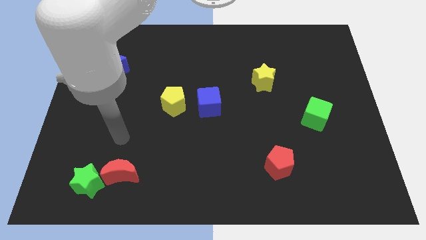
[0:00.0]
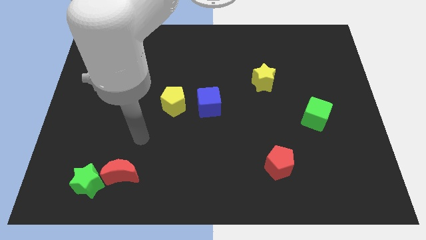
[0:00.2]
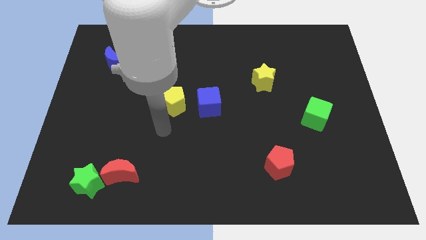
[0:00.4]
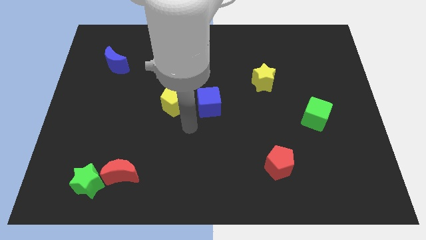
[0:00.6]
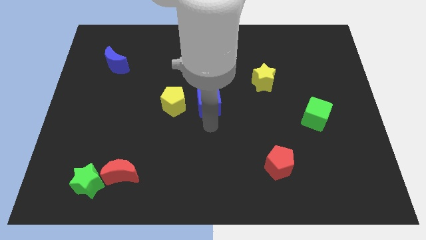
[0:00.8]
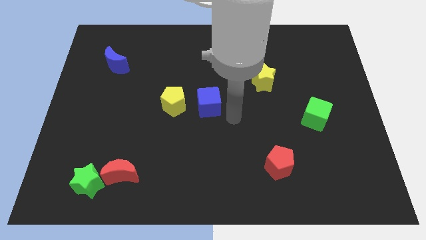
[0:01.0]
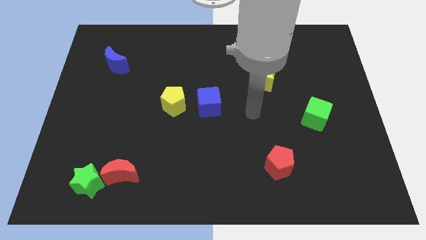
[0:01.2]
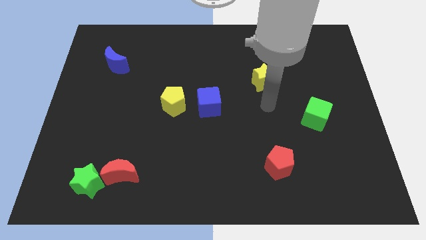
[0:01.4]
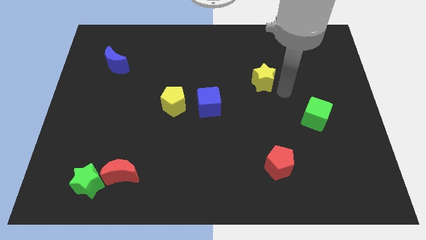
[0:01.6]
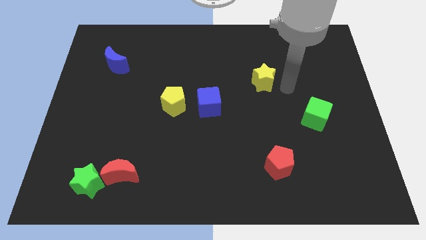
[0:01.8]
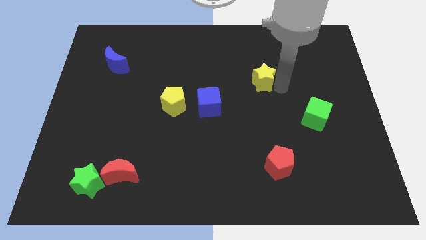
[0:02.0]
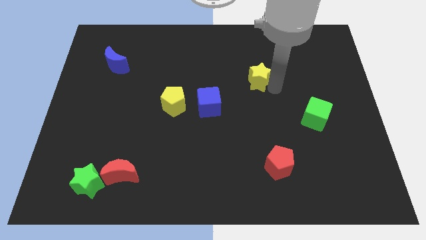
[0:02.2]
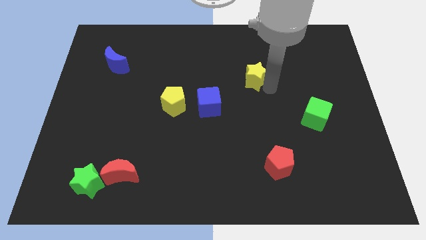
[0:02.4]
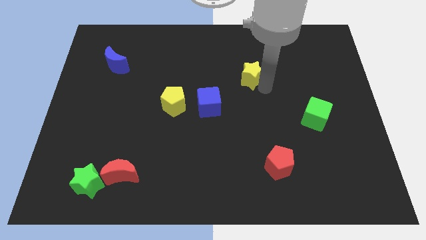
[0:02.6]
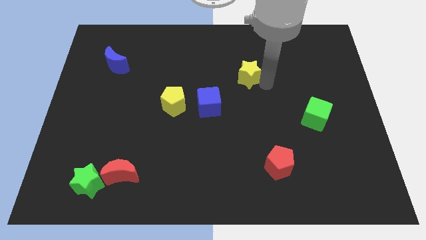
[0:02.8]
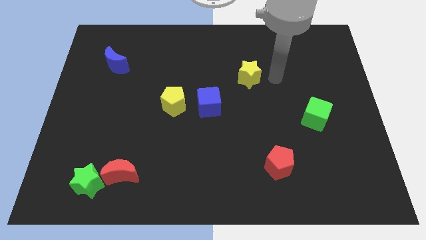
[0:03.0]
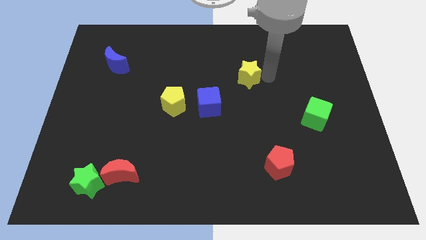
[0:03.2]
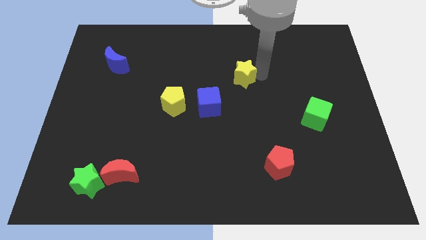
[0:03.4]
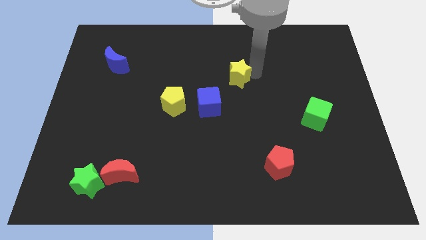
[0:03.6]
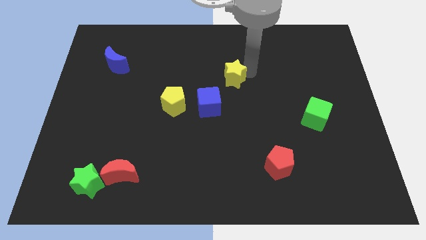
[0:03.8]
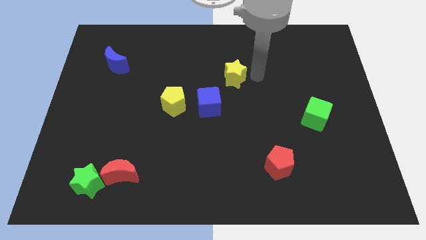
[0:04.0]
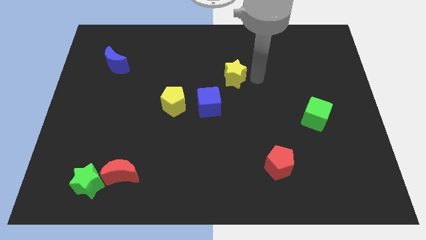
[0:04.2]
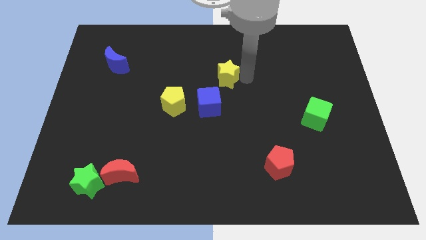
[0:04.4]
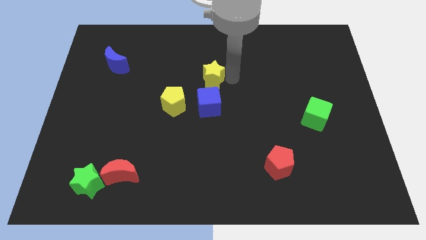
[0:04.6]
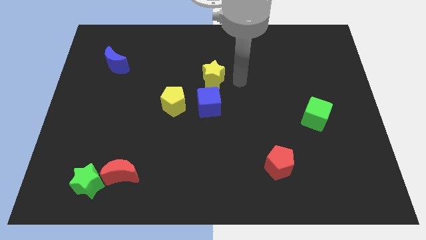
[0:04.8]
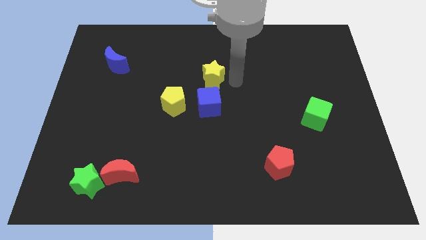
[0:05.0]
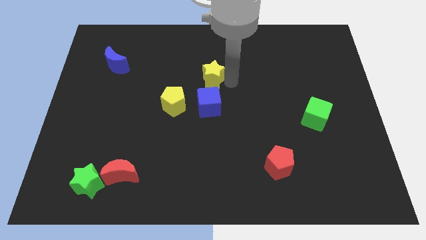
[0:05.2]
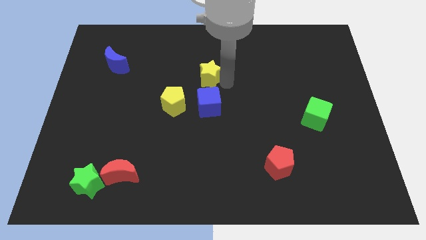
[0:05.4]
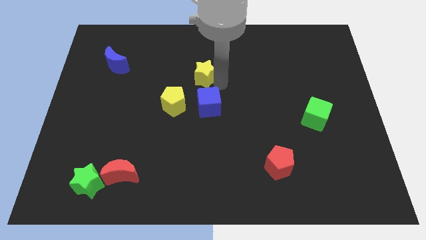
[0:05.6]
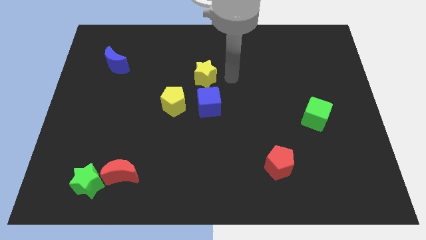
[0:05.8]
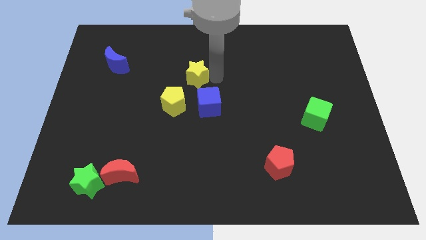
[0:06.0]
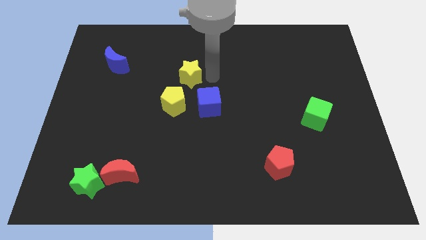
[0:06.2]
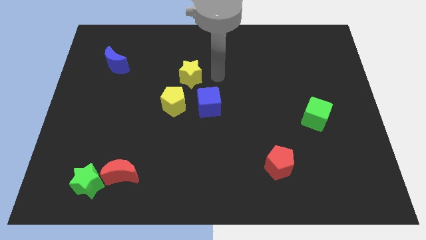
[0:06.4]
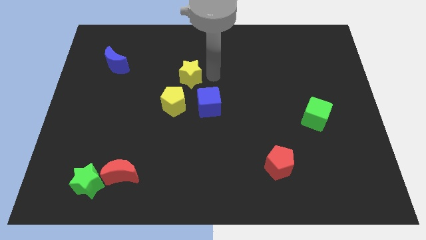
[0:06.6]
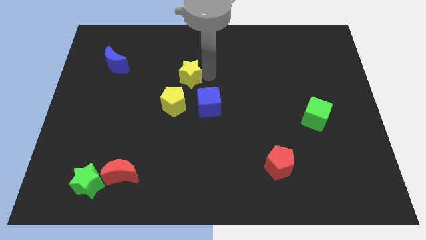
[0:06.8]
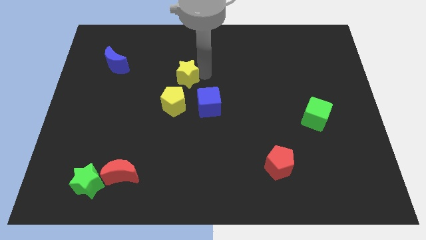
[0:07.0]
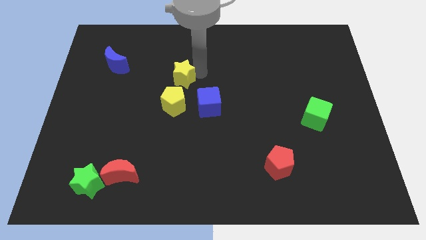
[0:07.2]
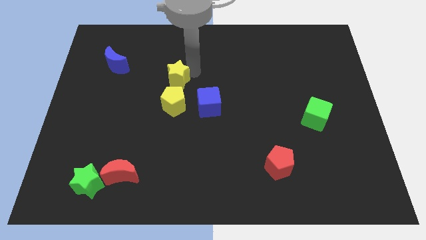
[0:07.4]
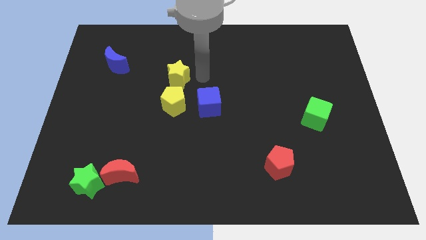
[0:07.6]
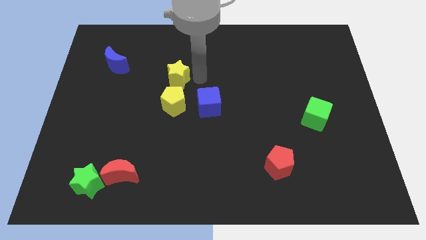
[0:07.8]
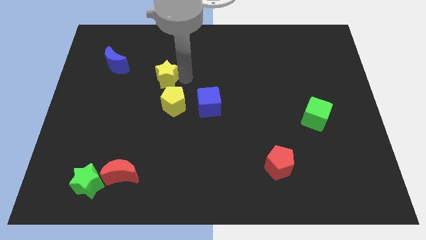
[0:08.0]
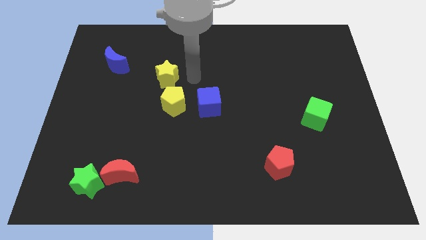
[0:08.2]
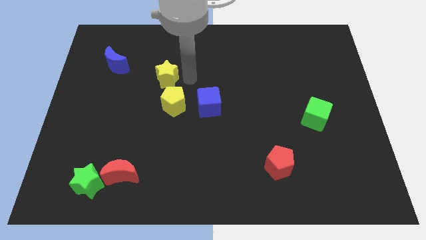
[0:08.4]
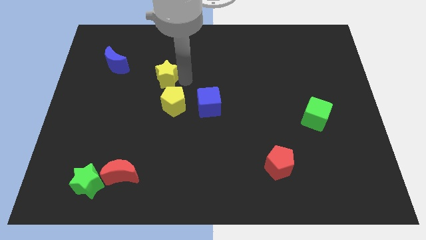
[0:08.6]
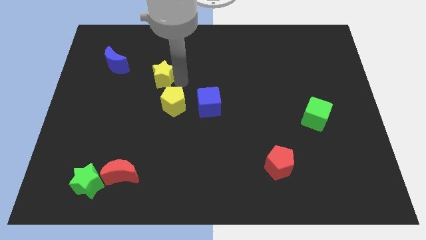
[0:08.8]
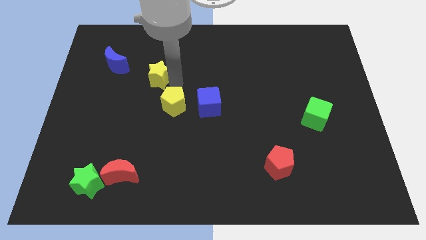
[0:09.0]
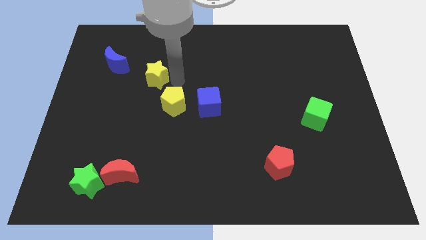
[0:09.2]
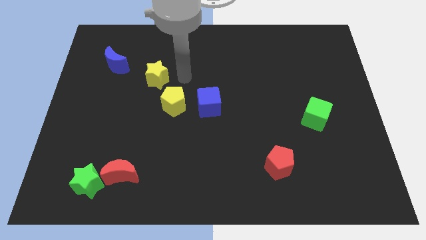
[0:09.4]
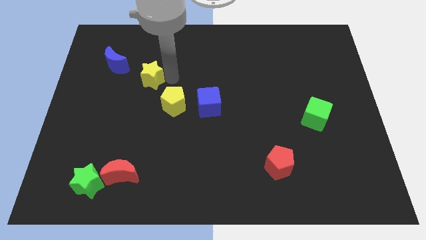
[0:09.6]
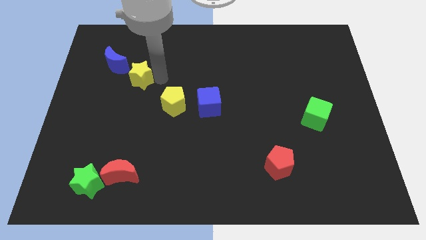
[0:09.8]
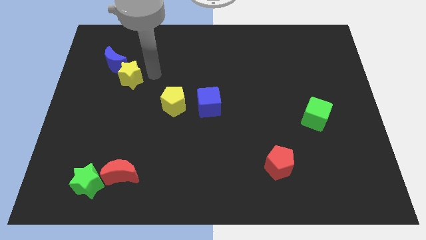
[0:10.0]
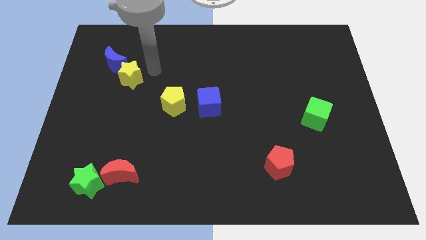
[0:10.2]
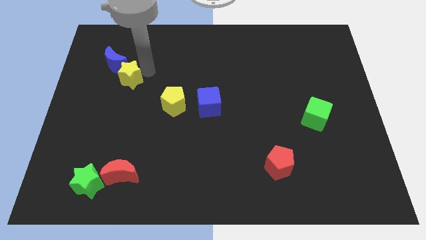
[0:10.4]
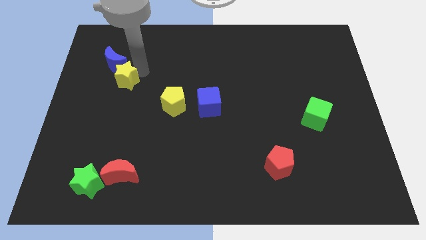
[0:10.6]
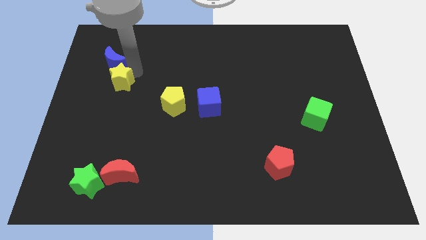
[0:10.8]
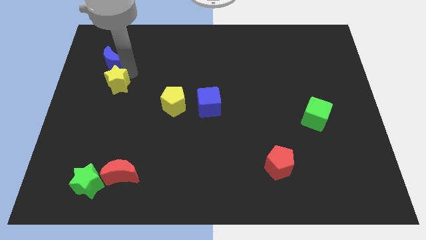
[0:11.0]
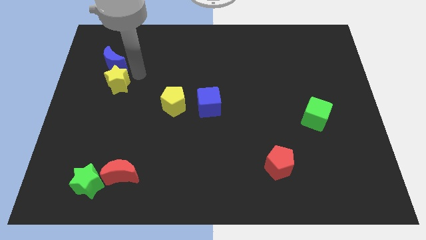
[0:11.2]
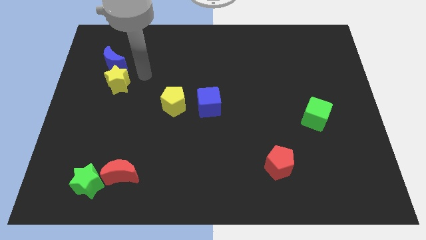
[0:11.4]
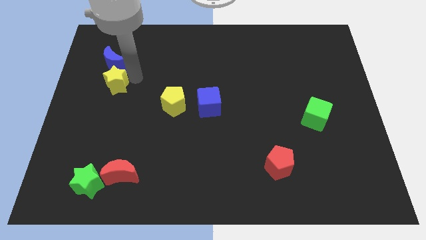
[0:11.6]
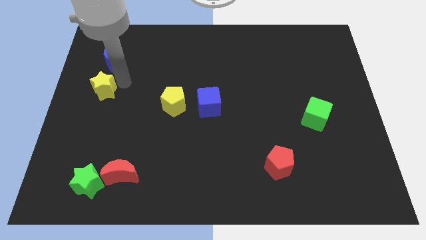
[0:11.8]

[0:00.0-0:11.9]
push the yellow star to the left side
